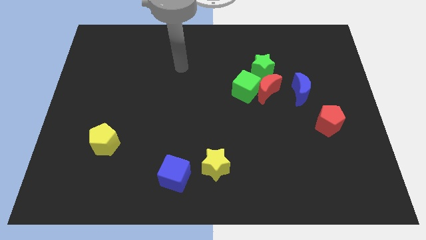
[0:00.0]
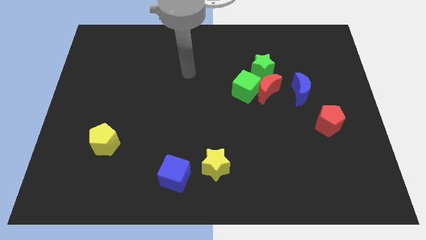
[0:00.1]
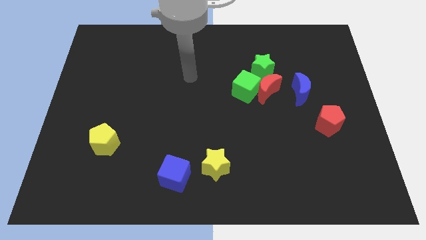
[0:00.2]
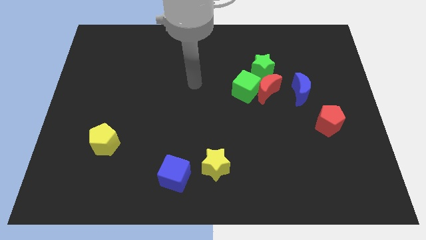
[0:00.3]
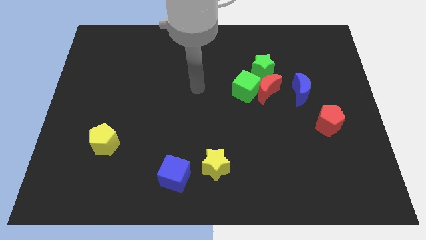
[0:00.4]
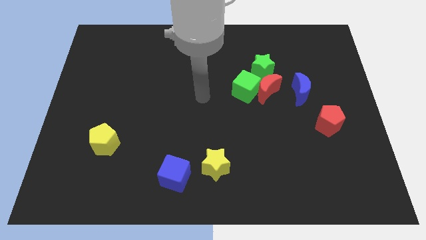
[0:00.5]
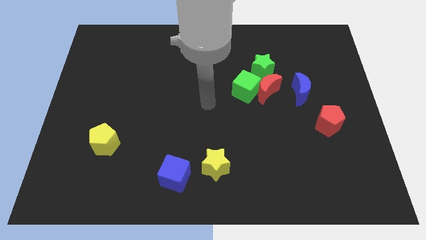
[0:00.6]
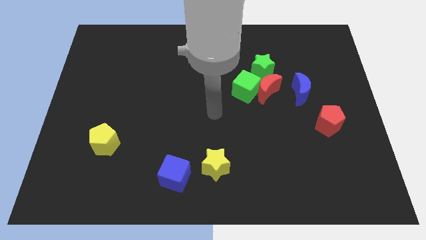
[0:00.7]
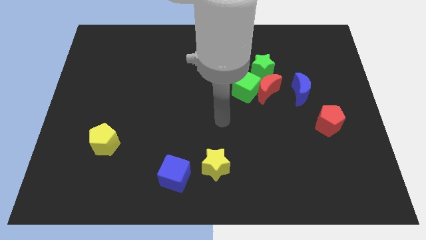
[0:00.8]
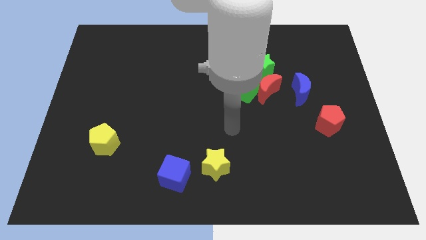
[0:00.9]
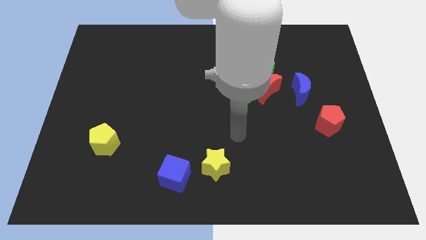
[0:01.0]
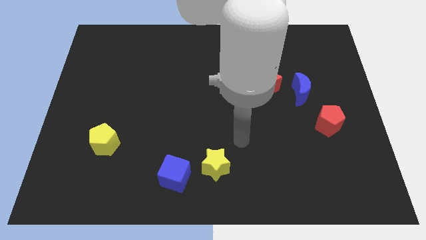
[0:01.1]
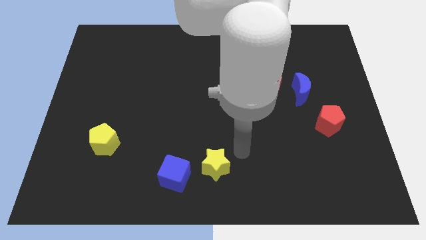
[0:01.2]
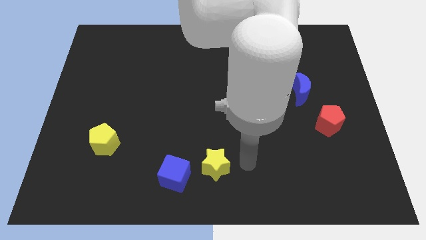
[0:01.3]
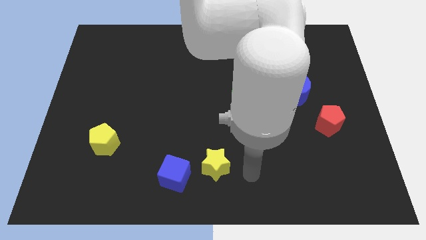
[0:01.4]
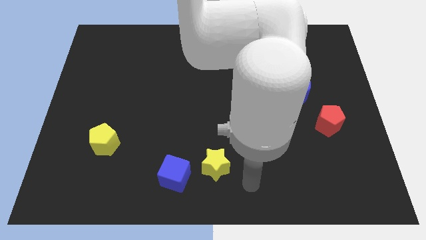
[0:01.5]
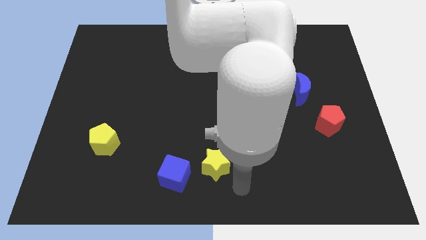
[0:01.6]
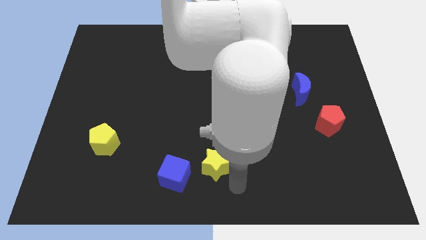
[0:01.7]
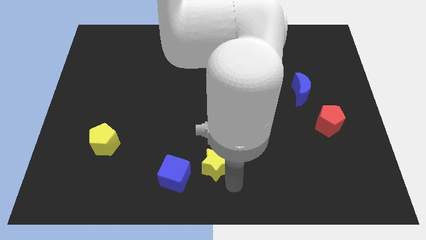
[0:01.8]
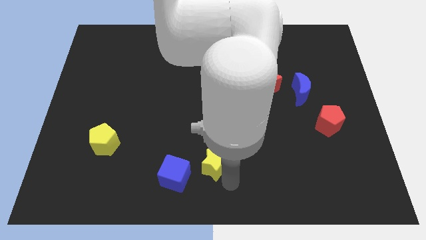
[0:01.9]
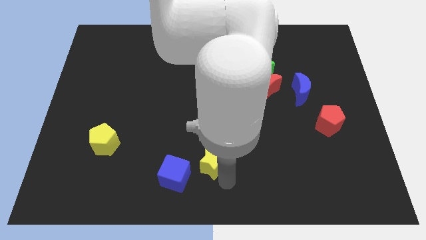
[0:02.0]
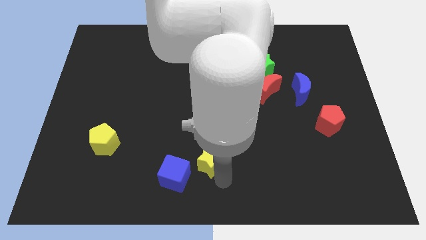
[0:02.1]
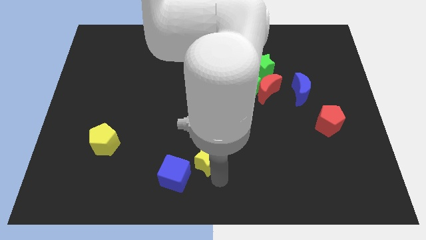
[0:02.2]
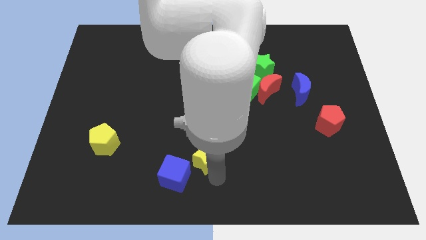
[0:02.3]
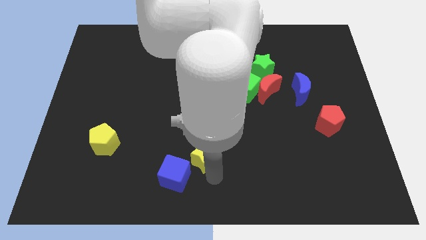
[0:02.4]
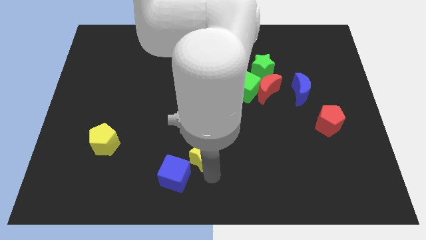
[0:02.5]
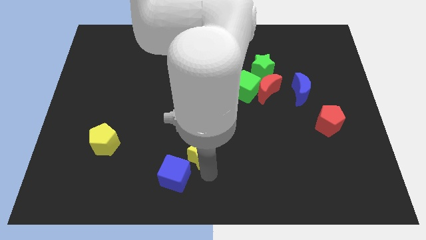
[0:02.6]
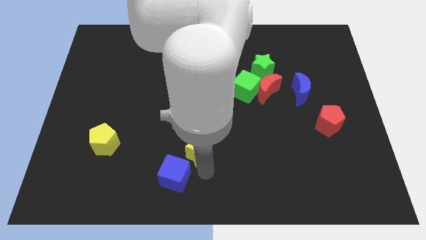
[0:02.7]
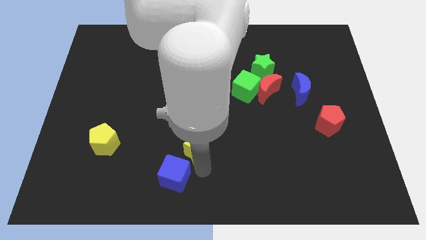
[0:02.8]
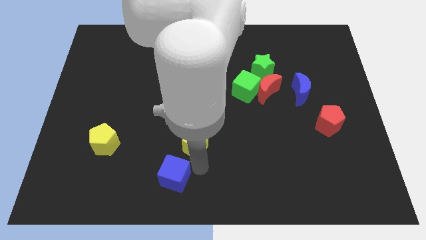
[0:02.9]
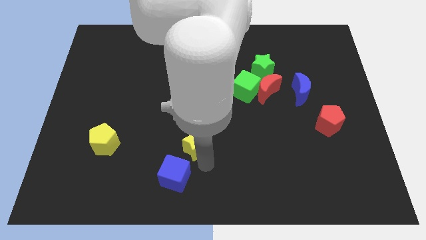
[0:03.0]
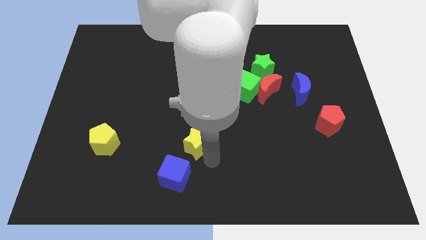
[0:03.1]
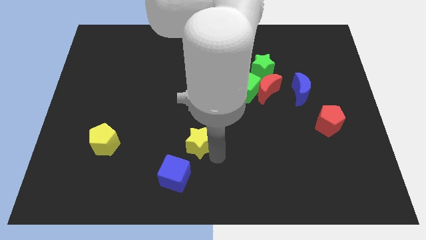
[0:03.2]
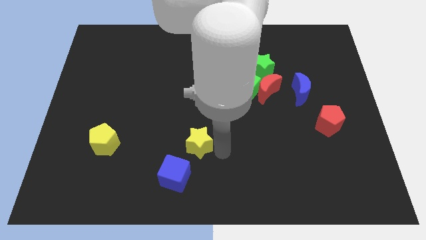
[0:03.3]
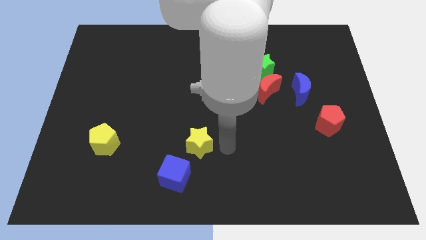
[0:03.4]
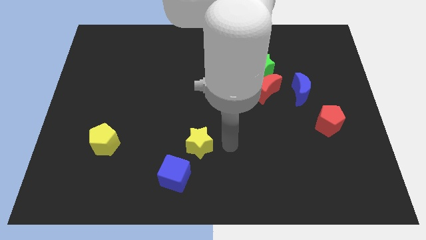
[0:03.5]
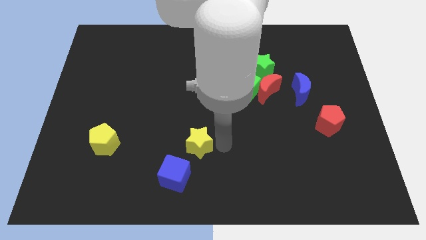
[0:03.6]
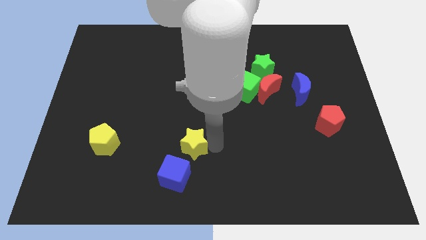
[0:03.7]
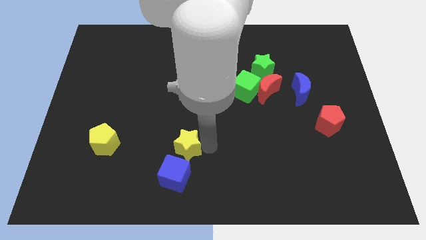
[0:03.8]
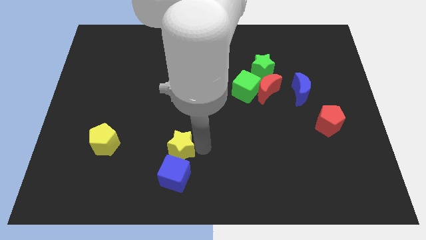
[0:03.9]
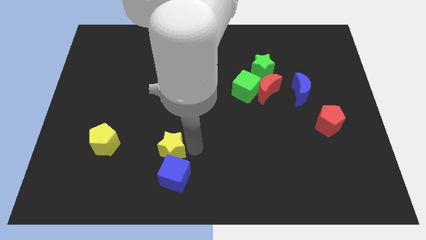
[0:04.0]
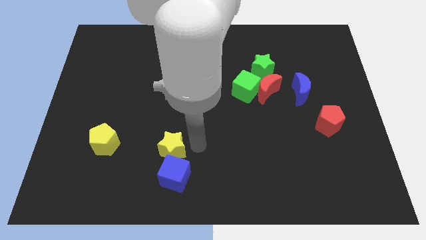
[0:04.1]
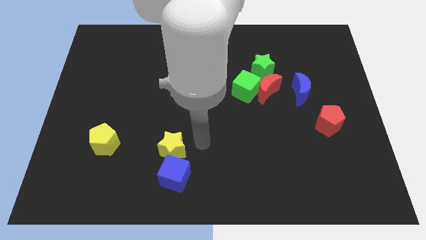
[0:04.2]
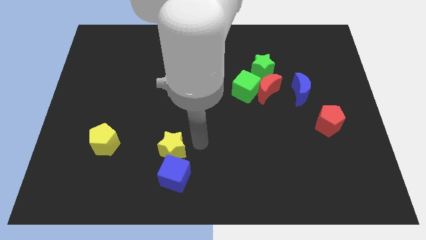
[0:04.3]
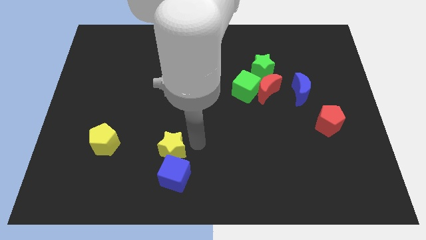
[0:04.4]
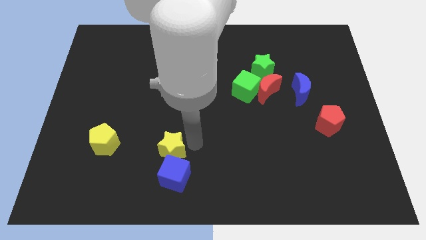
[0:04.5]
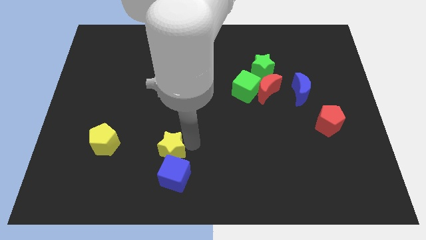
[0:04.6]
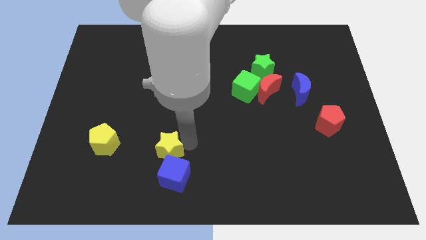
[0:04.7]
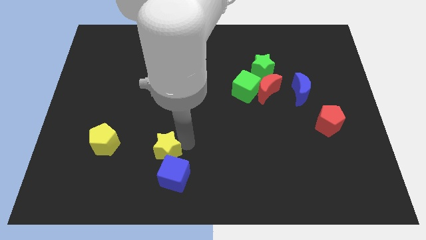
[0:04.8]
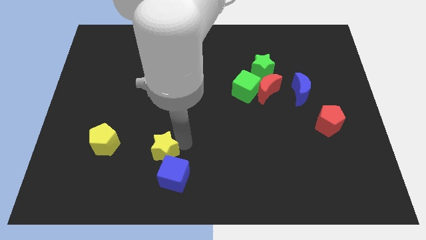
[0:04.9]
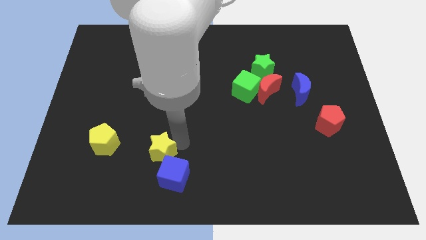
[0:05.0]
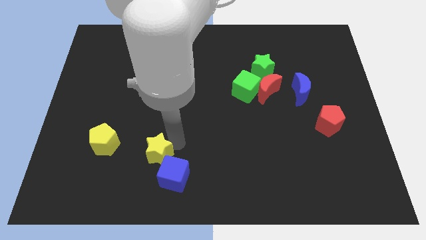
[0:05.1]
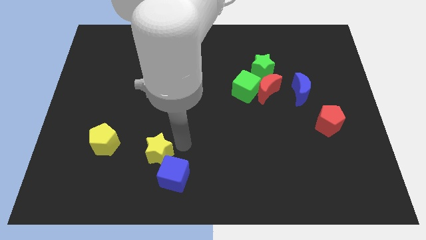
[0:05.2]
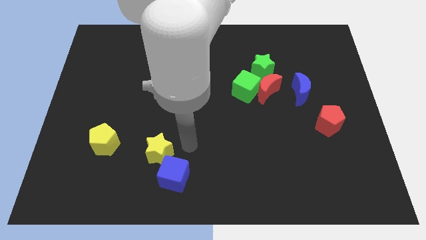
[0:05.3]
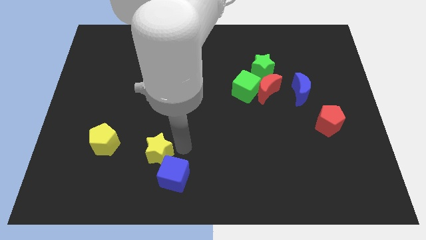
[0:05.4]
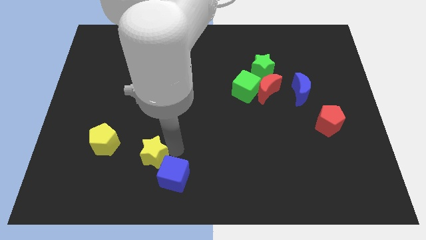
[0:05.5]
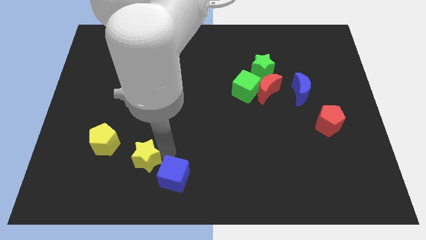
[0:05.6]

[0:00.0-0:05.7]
put the yellow star diagonally down and to the right of the yellow pentagon

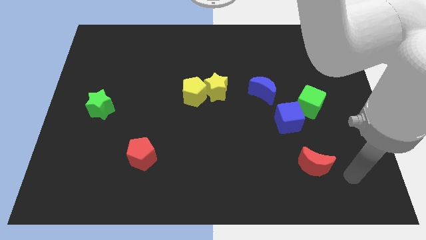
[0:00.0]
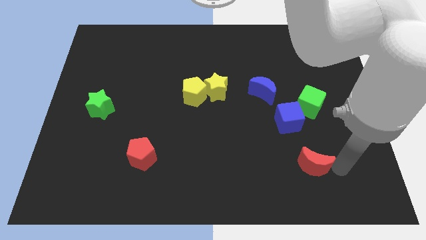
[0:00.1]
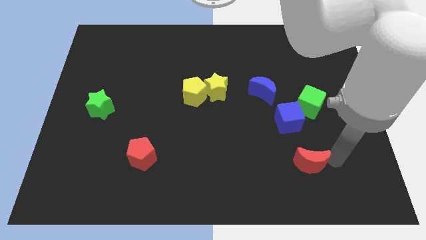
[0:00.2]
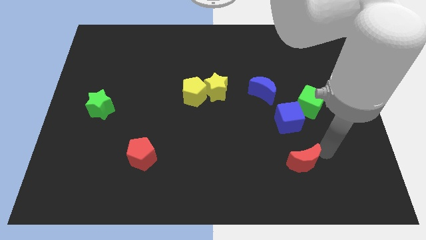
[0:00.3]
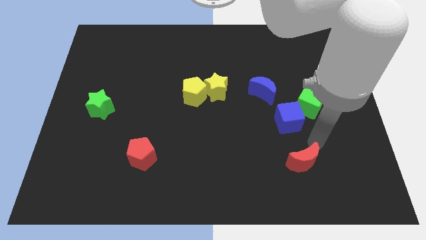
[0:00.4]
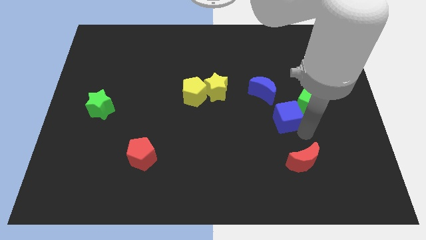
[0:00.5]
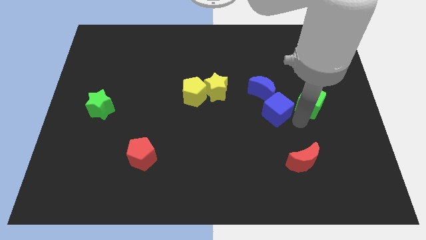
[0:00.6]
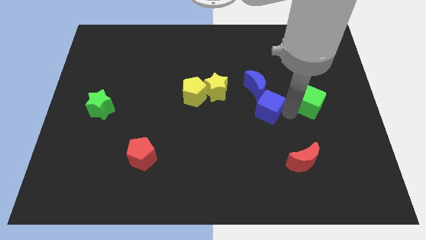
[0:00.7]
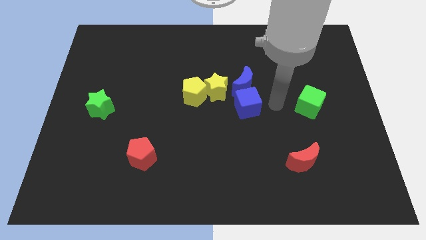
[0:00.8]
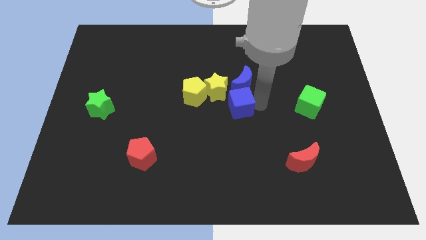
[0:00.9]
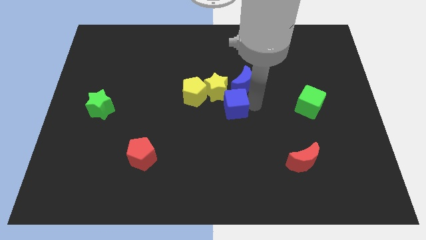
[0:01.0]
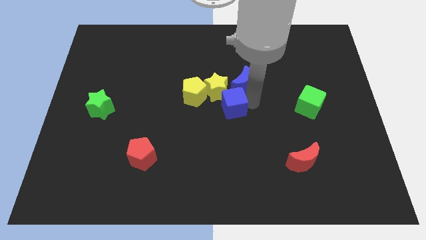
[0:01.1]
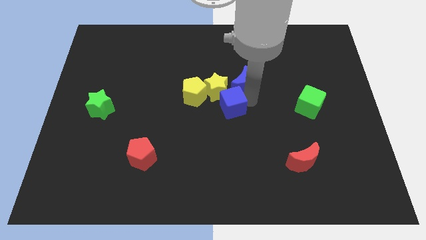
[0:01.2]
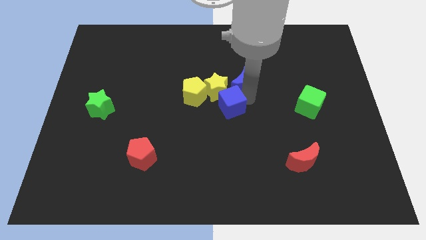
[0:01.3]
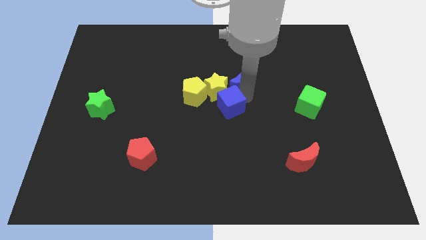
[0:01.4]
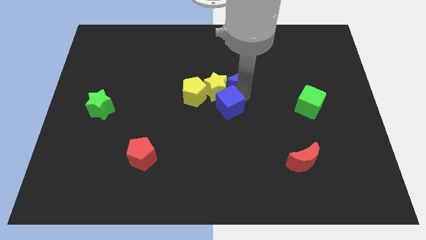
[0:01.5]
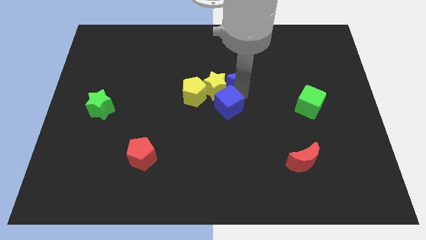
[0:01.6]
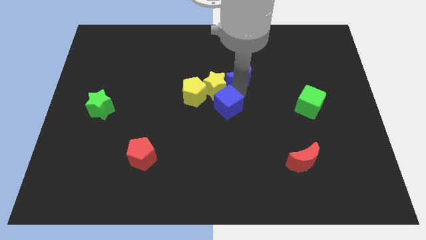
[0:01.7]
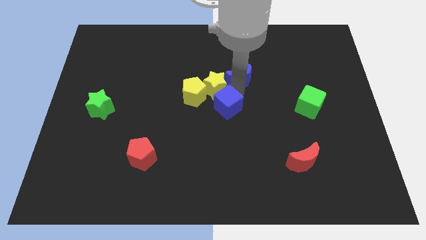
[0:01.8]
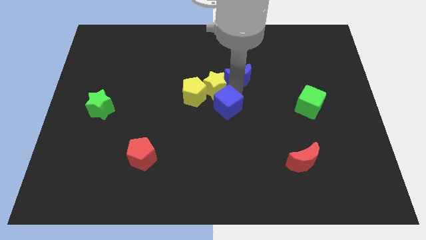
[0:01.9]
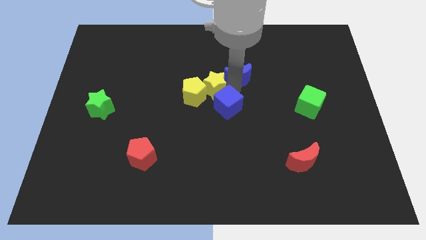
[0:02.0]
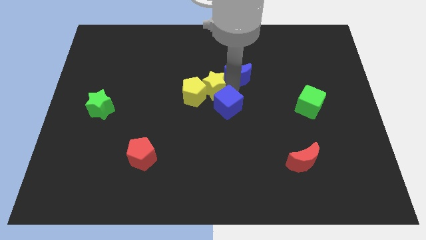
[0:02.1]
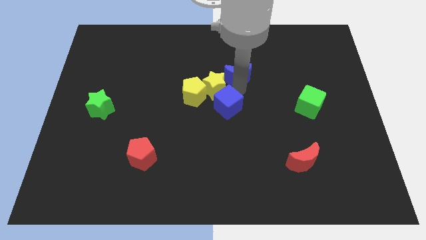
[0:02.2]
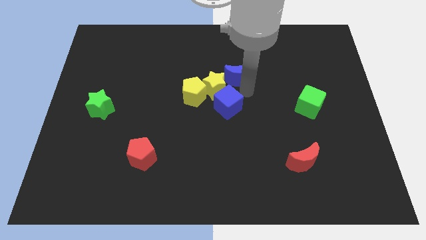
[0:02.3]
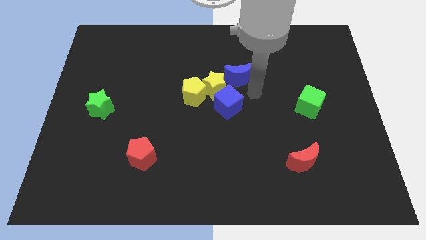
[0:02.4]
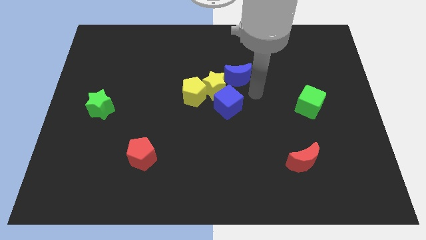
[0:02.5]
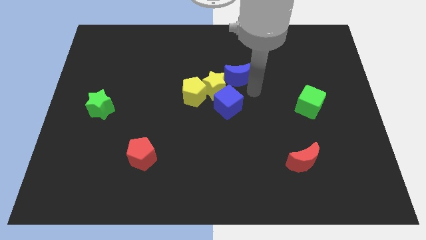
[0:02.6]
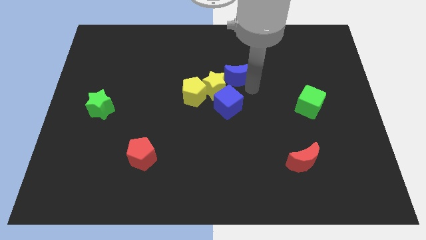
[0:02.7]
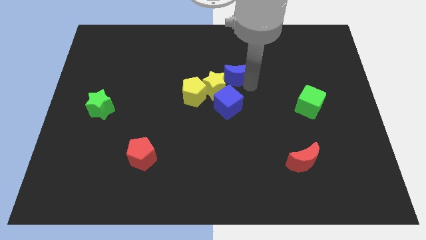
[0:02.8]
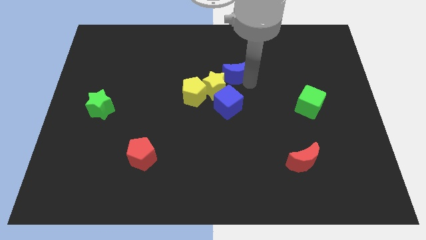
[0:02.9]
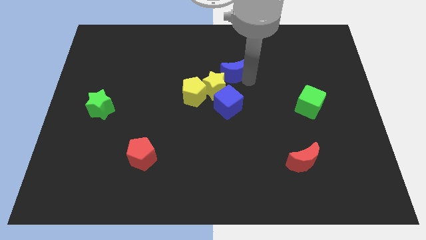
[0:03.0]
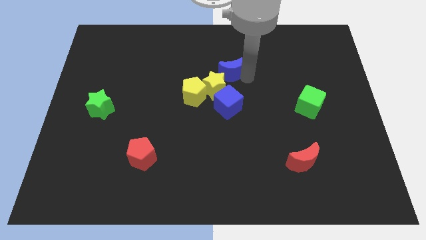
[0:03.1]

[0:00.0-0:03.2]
slide the blue moon above the yellow star
